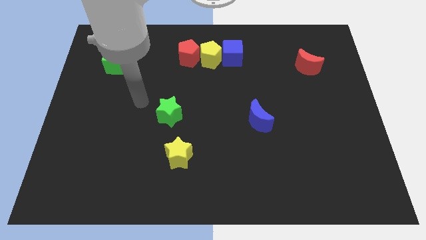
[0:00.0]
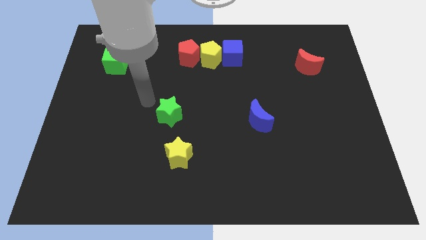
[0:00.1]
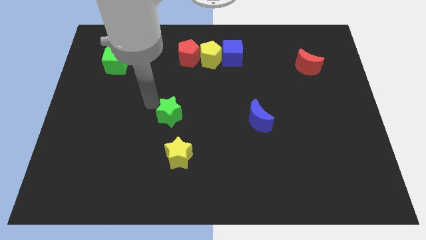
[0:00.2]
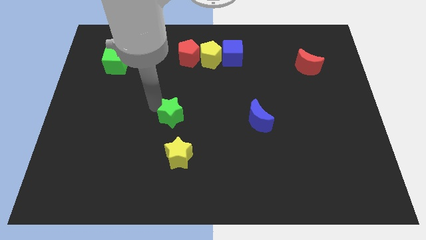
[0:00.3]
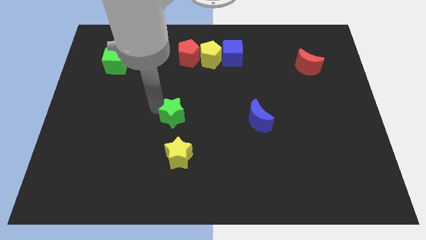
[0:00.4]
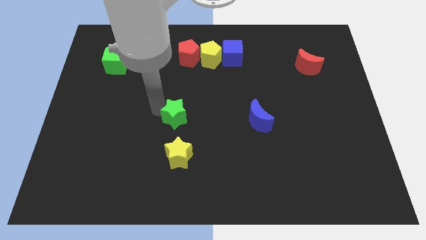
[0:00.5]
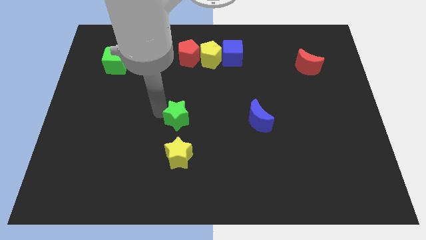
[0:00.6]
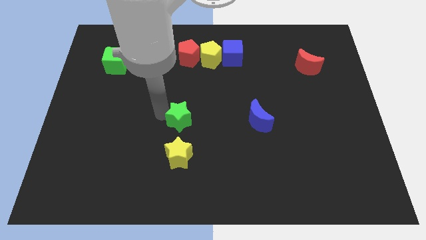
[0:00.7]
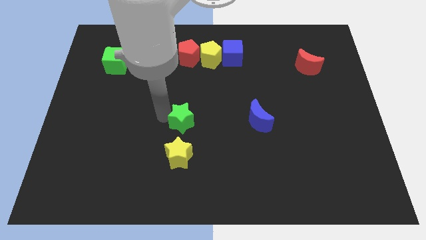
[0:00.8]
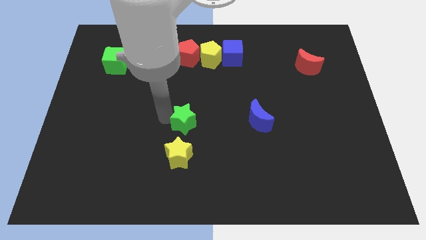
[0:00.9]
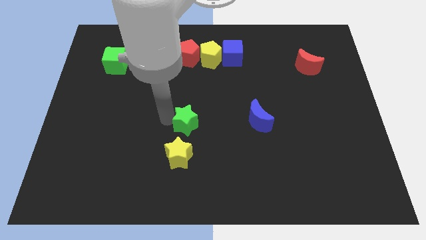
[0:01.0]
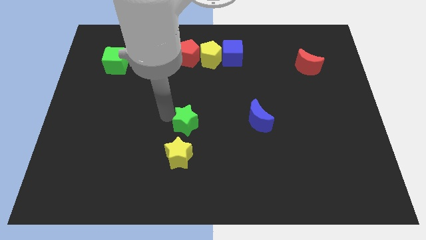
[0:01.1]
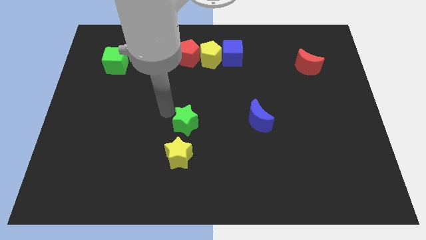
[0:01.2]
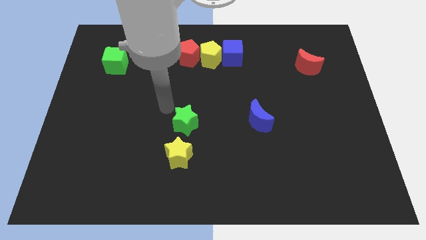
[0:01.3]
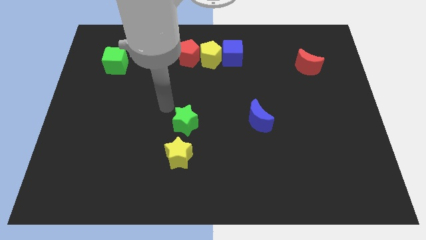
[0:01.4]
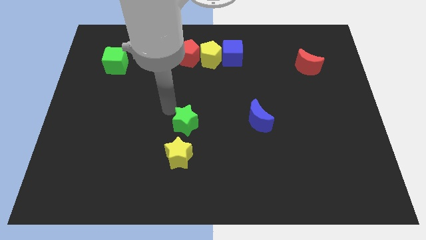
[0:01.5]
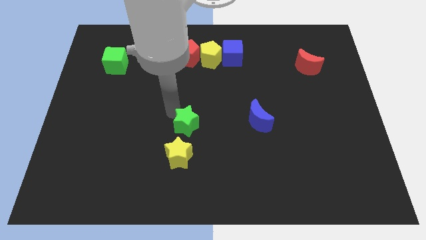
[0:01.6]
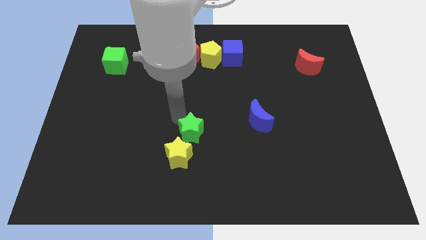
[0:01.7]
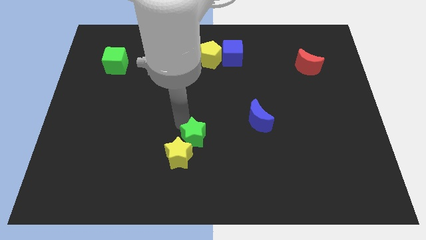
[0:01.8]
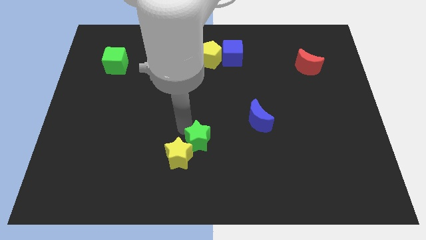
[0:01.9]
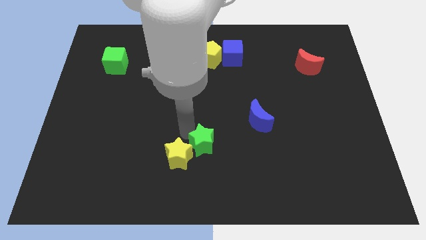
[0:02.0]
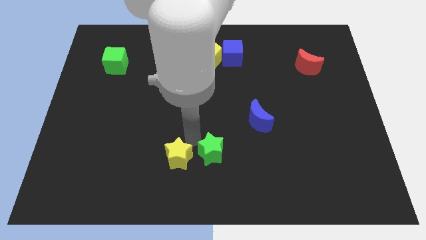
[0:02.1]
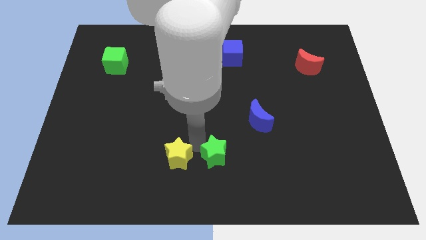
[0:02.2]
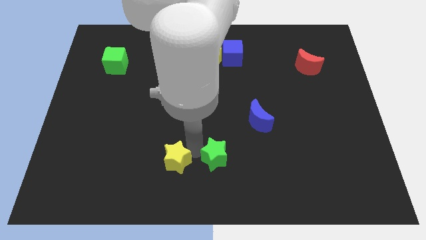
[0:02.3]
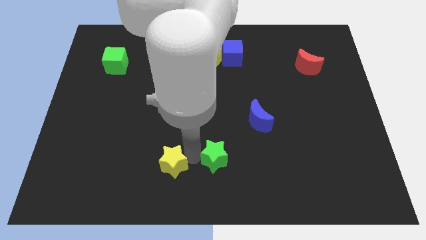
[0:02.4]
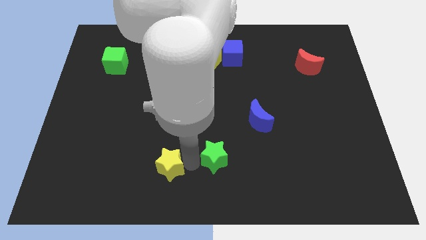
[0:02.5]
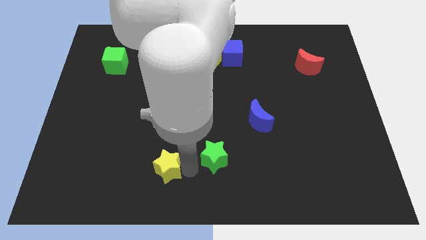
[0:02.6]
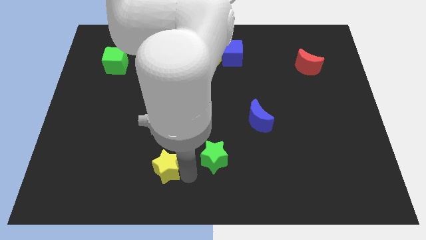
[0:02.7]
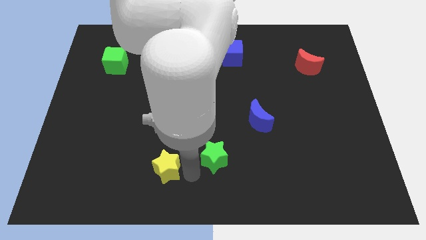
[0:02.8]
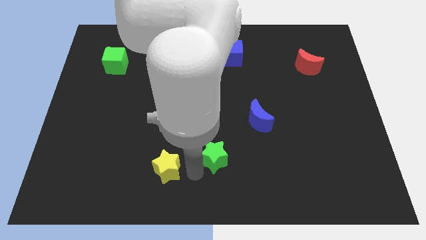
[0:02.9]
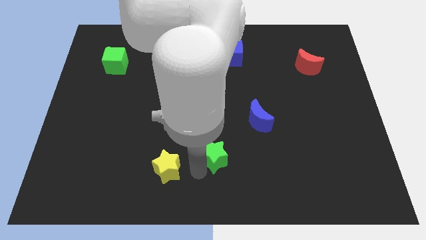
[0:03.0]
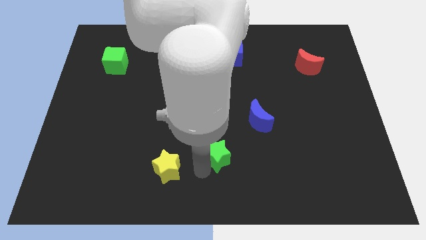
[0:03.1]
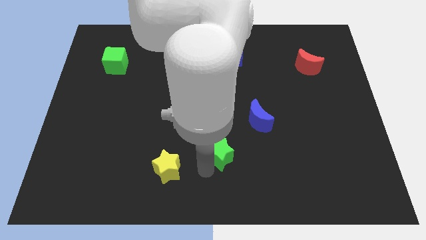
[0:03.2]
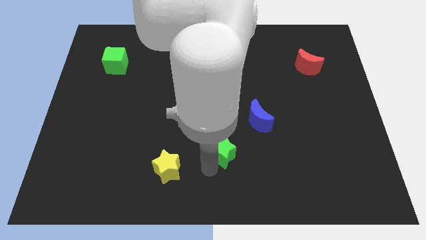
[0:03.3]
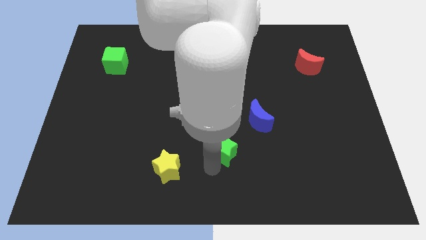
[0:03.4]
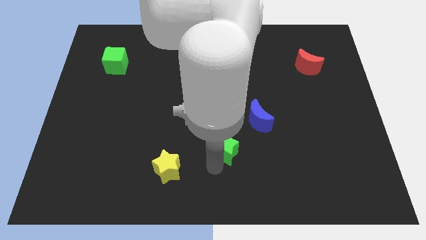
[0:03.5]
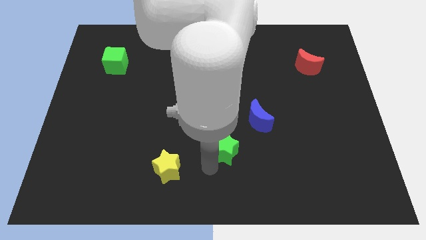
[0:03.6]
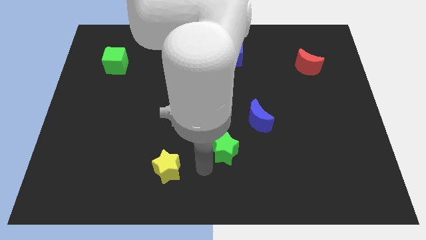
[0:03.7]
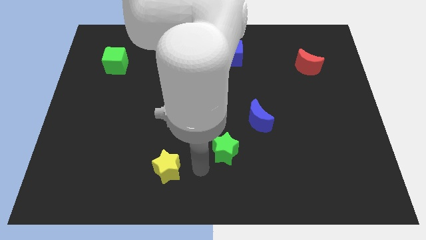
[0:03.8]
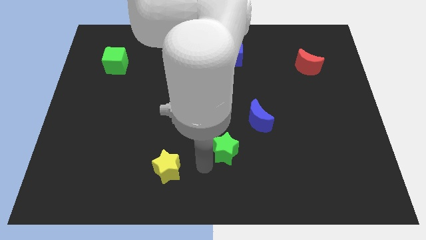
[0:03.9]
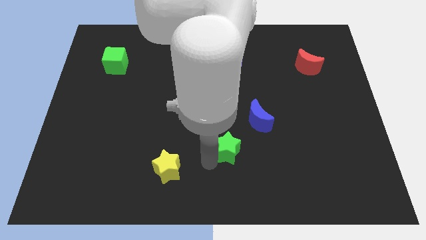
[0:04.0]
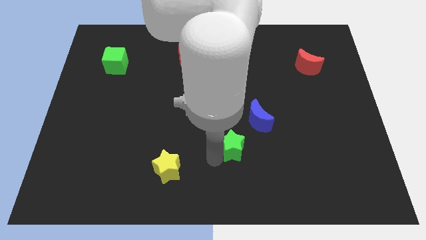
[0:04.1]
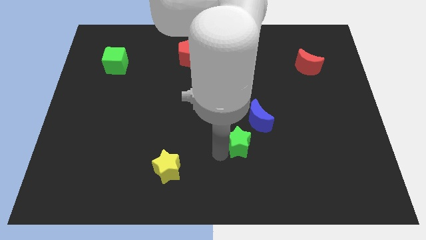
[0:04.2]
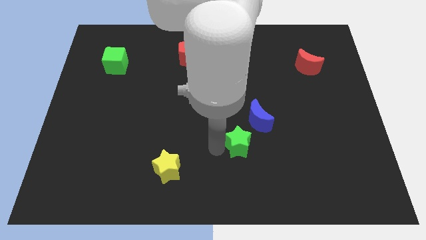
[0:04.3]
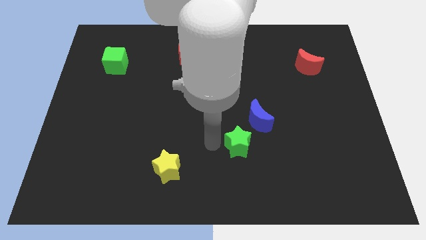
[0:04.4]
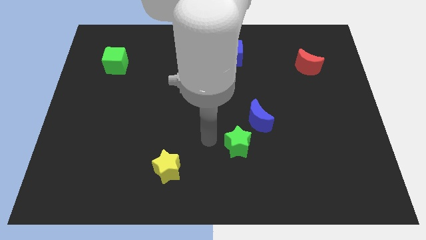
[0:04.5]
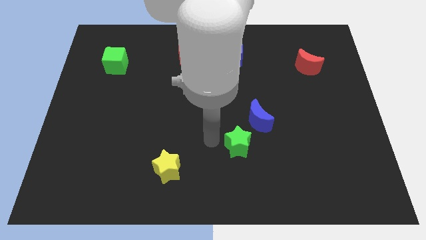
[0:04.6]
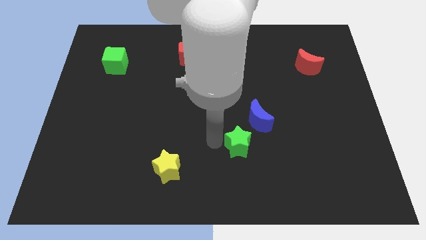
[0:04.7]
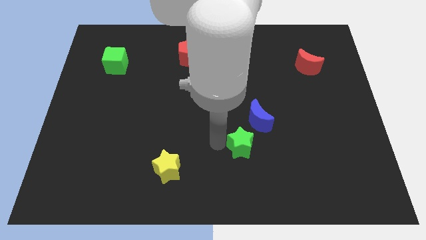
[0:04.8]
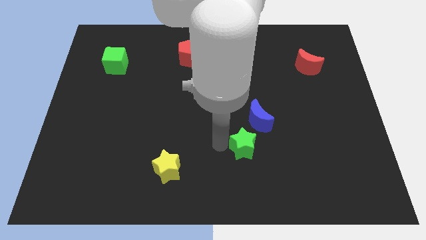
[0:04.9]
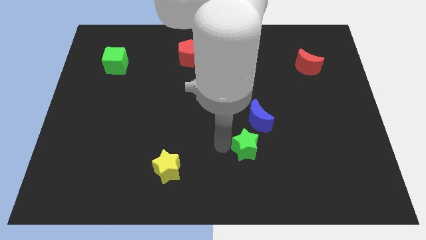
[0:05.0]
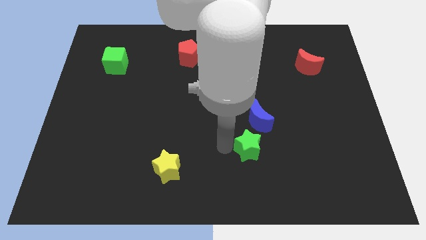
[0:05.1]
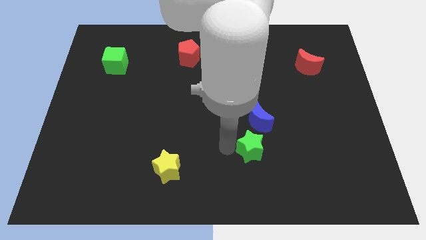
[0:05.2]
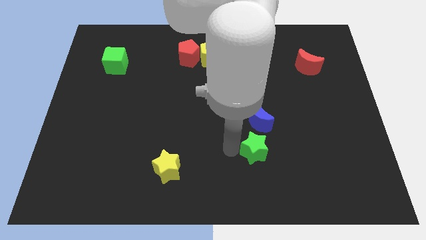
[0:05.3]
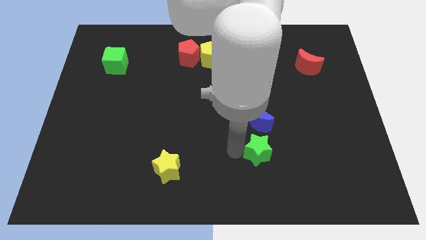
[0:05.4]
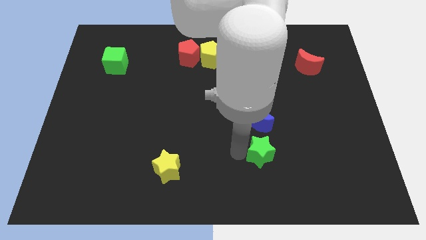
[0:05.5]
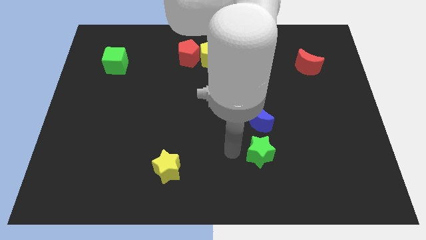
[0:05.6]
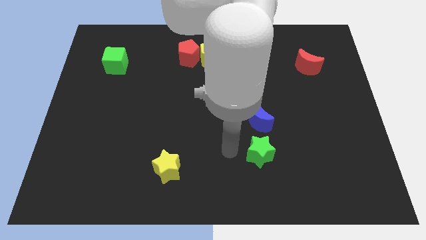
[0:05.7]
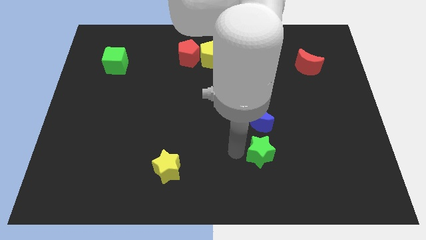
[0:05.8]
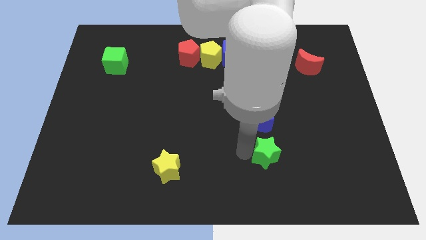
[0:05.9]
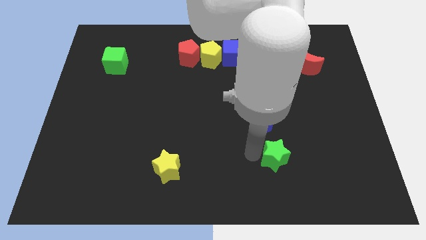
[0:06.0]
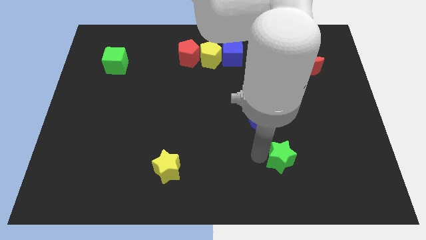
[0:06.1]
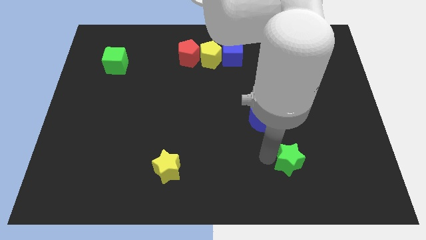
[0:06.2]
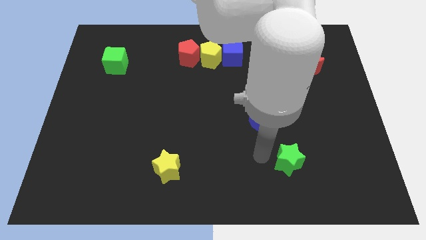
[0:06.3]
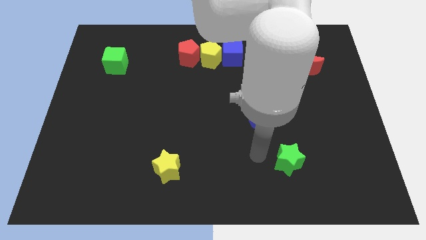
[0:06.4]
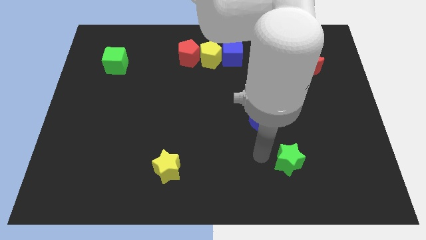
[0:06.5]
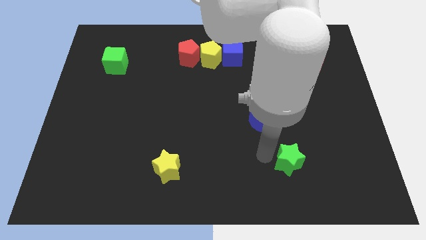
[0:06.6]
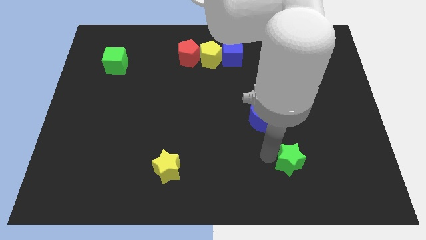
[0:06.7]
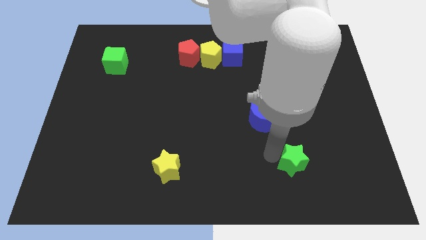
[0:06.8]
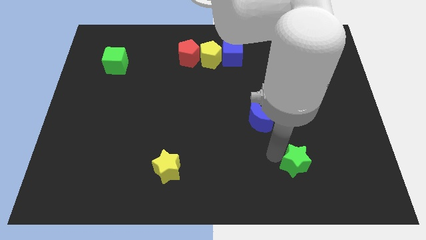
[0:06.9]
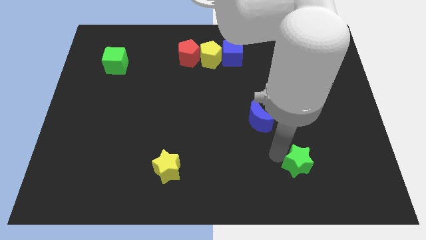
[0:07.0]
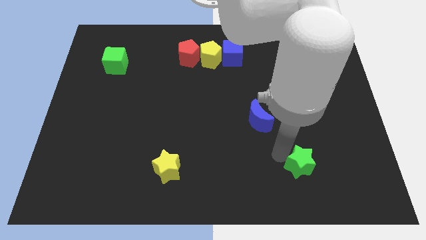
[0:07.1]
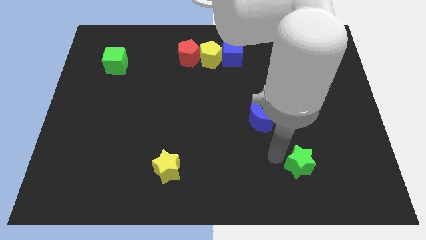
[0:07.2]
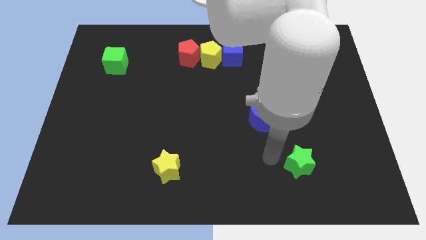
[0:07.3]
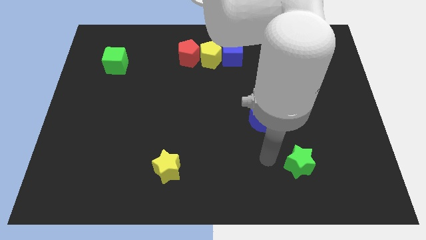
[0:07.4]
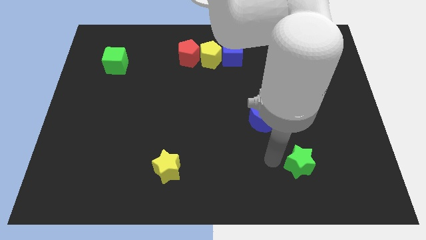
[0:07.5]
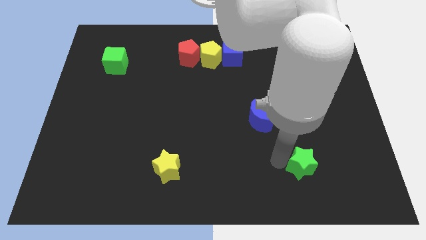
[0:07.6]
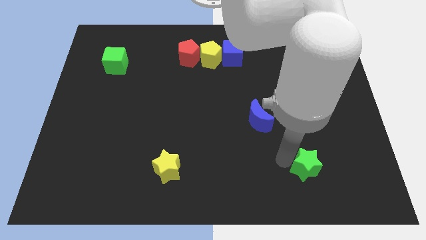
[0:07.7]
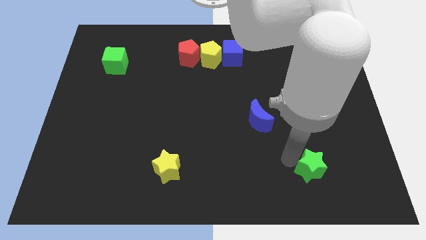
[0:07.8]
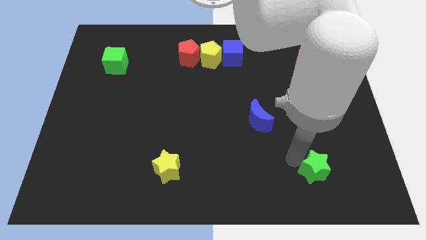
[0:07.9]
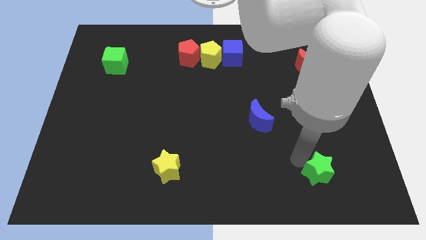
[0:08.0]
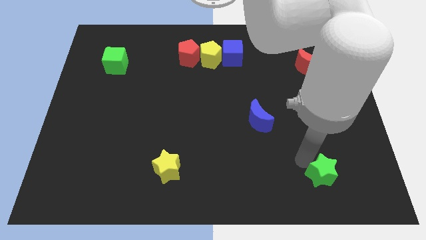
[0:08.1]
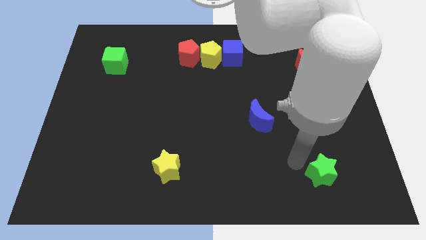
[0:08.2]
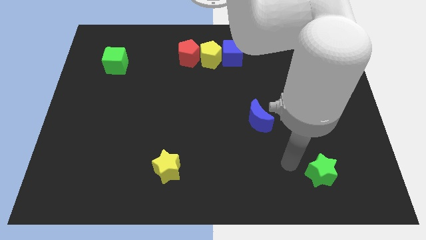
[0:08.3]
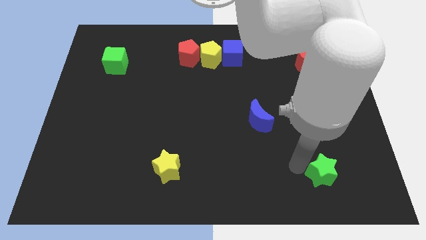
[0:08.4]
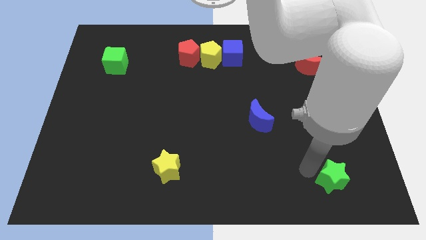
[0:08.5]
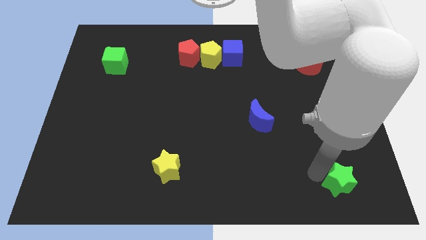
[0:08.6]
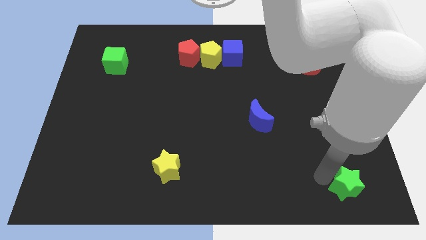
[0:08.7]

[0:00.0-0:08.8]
move the green star to the bottom right of the board
